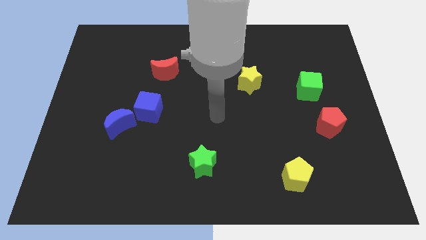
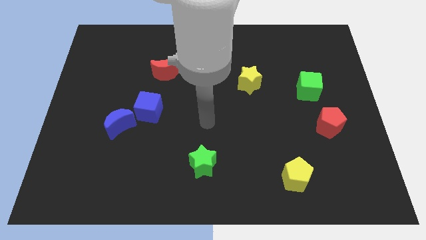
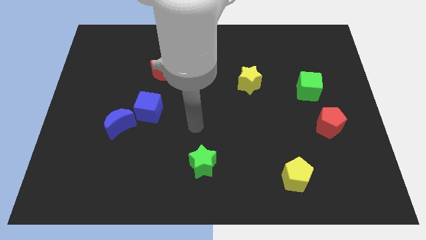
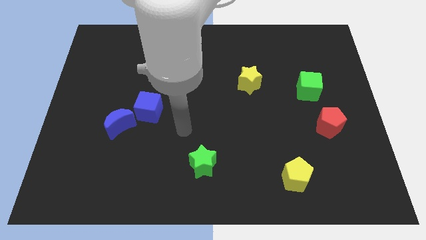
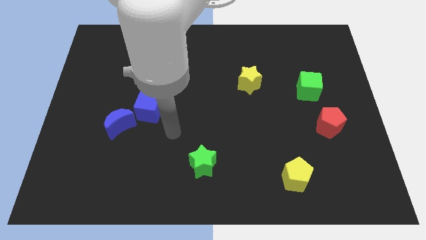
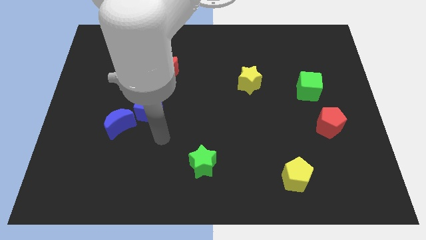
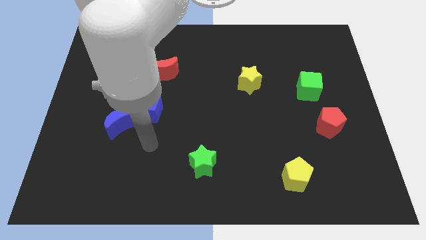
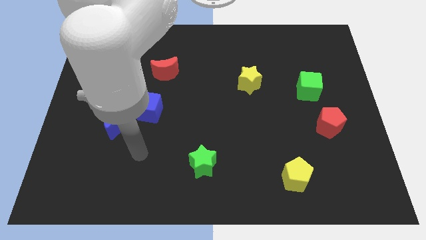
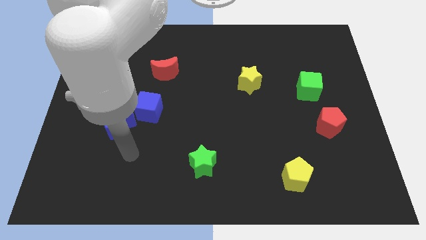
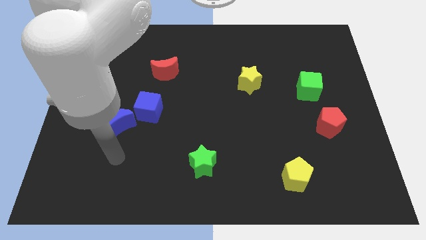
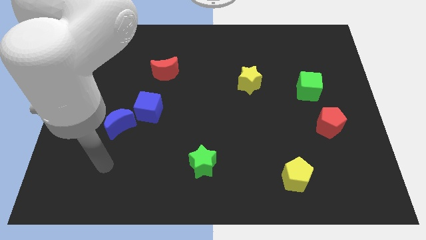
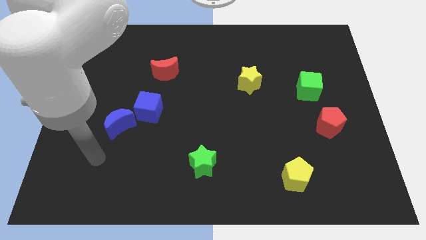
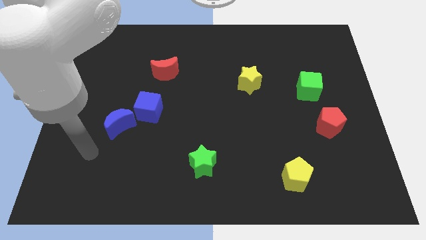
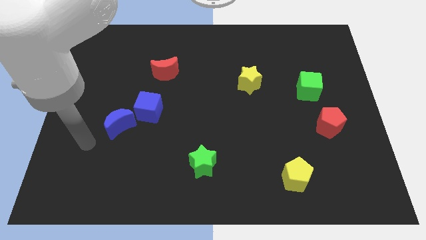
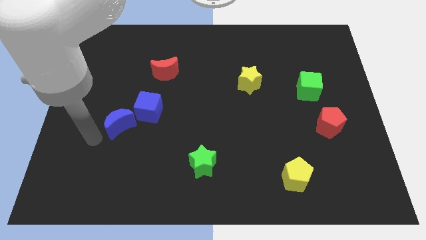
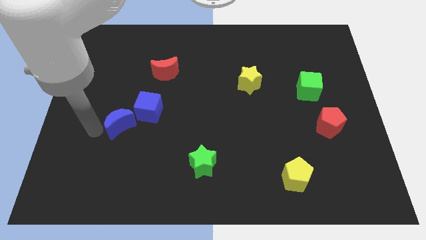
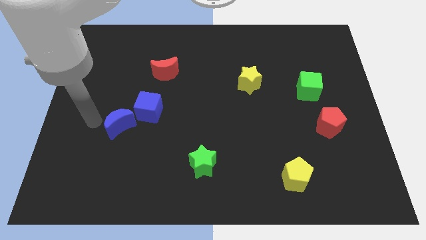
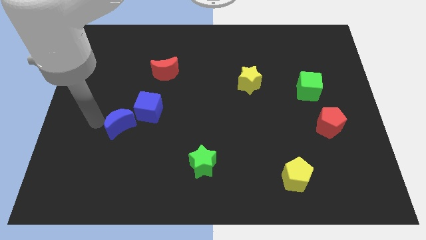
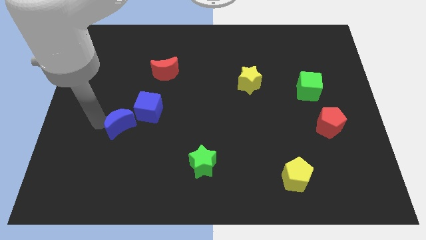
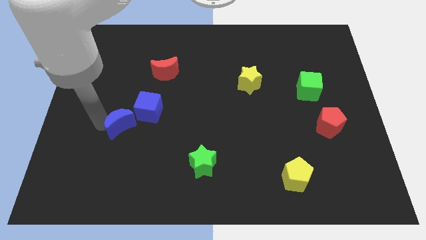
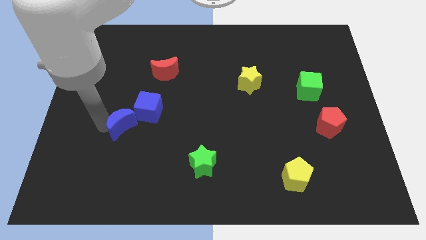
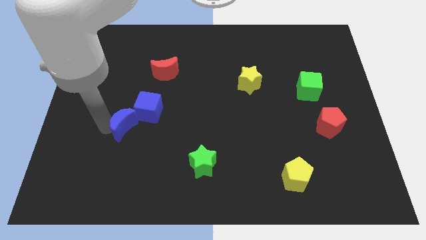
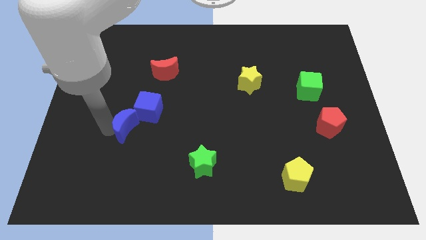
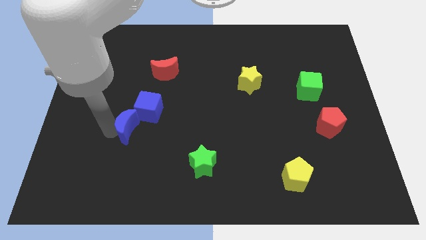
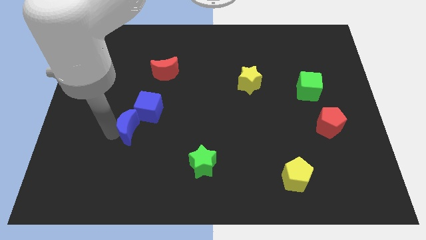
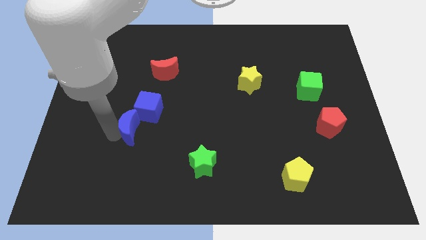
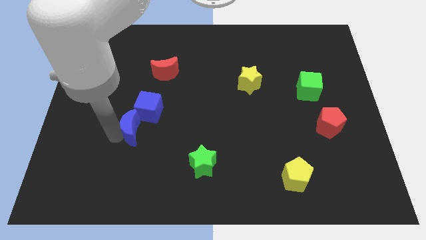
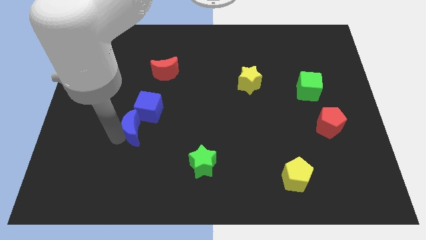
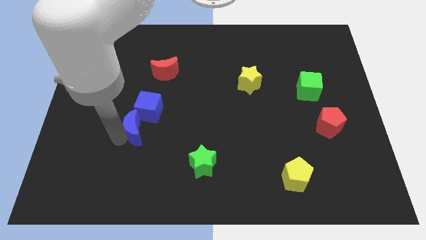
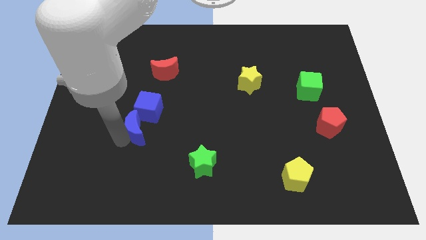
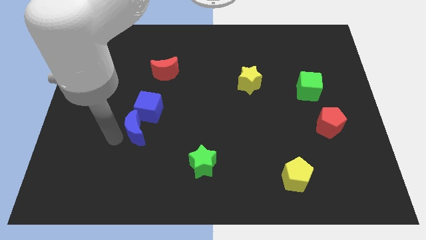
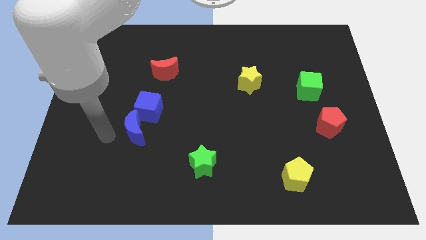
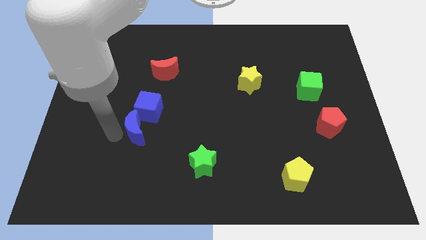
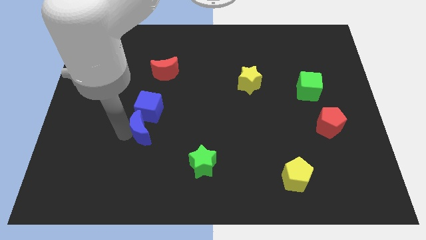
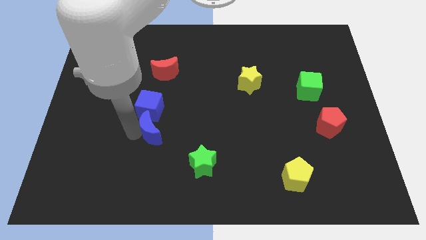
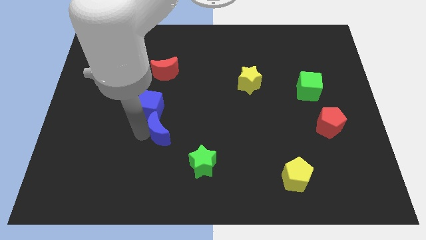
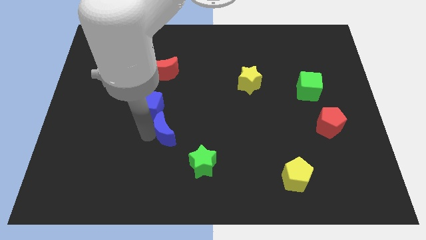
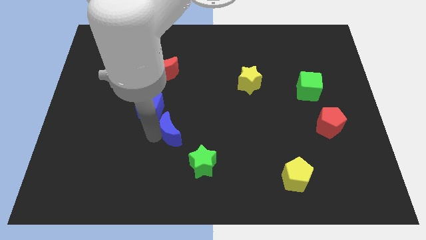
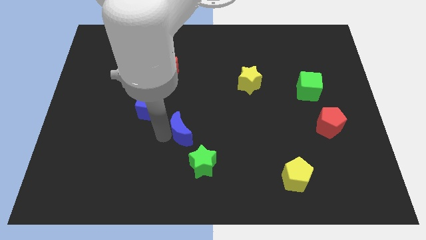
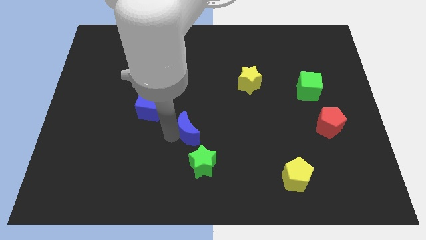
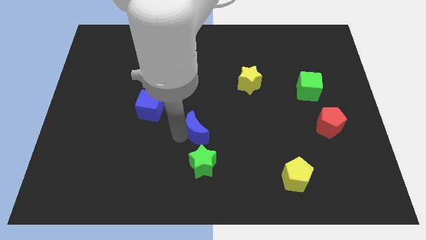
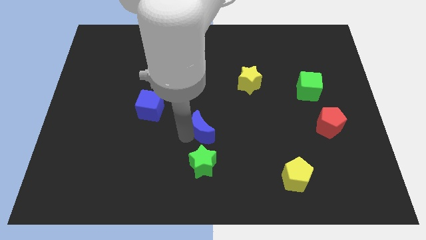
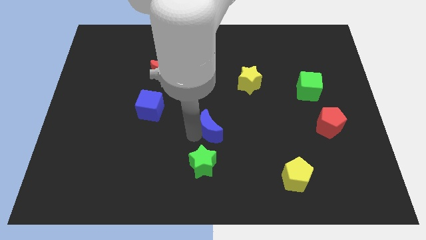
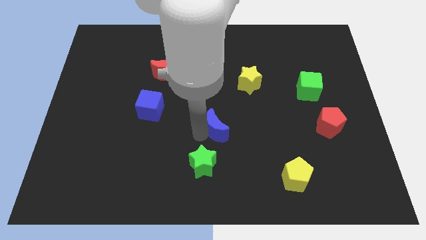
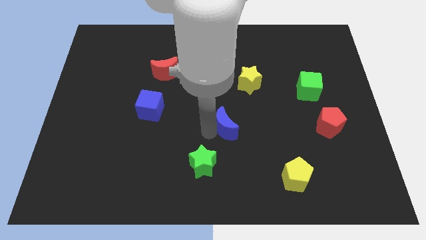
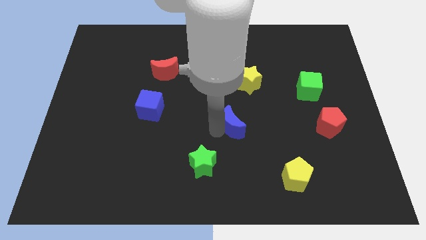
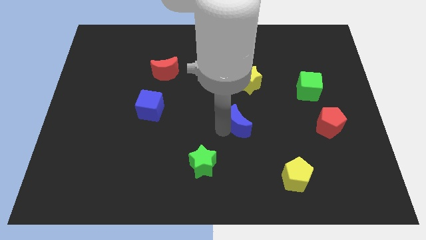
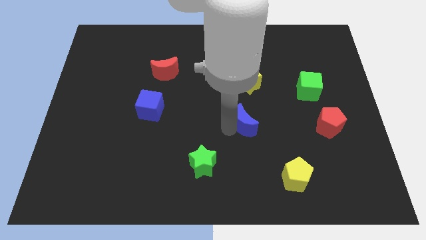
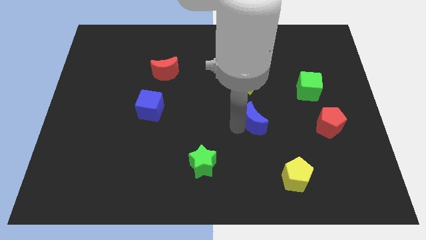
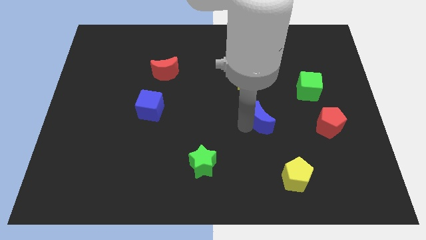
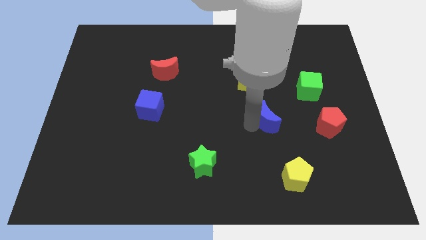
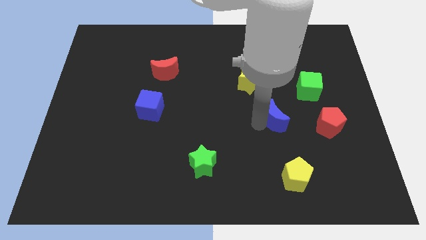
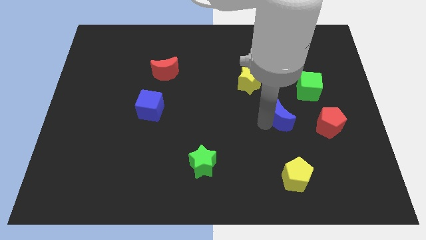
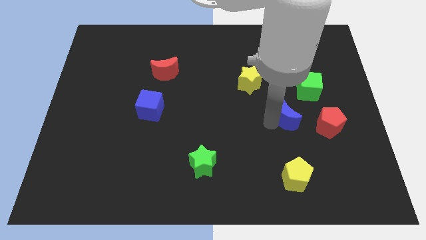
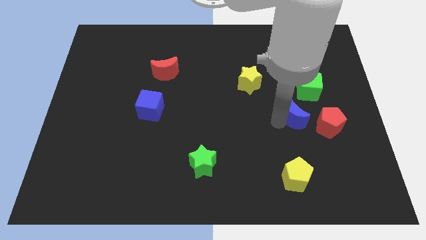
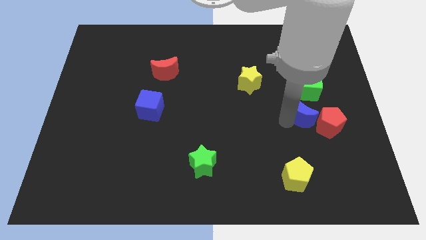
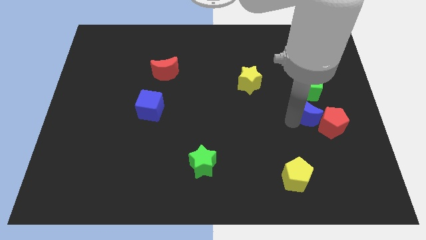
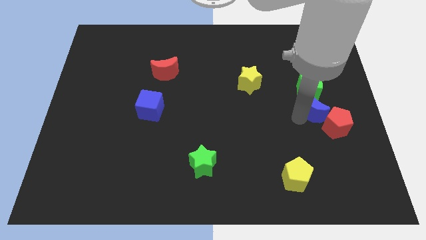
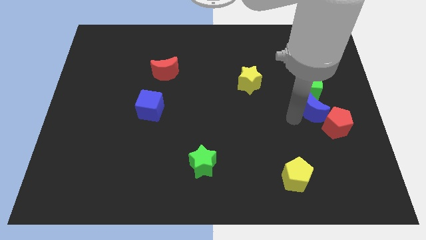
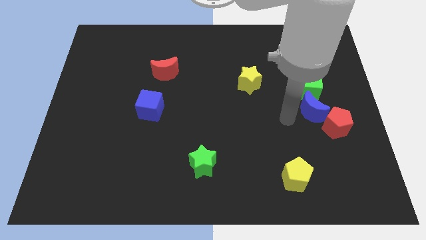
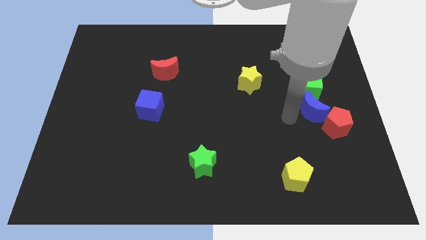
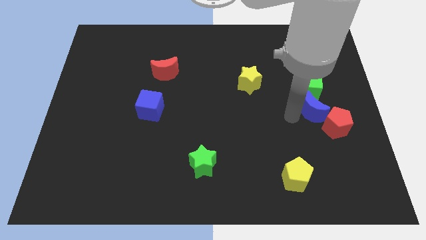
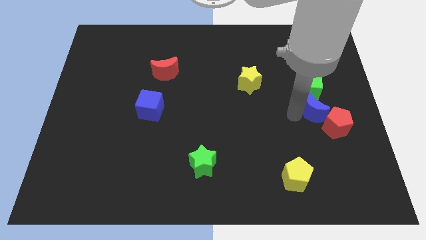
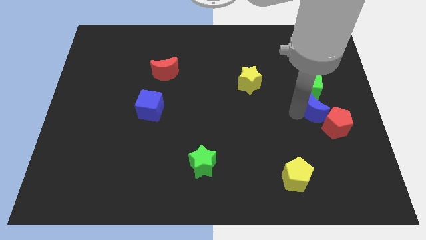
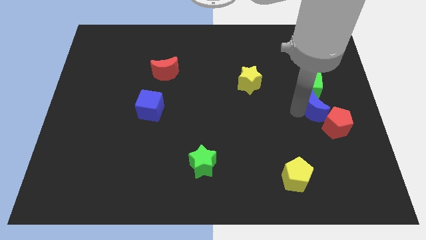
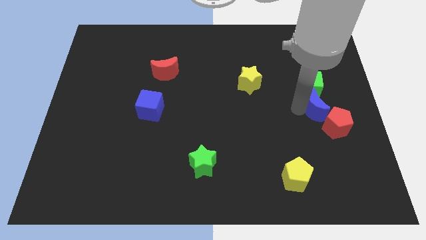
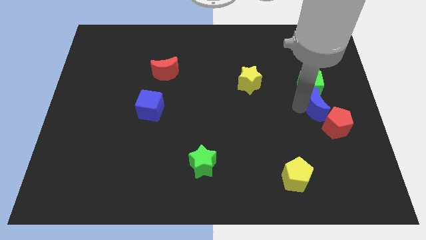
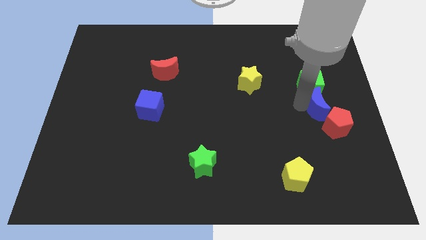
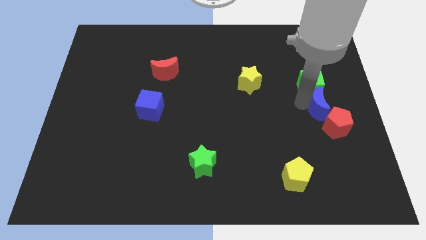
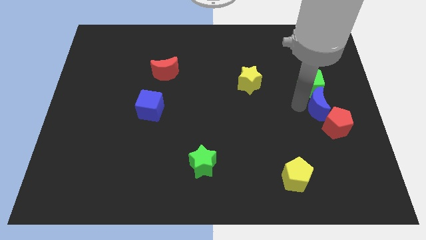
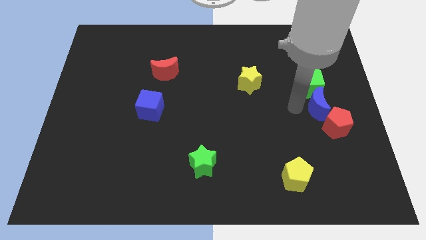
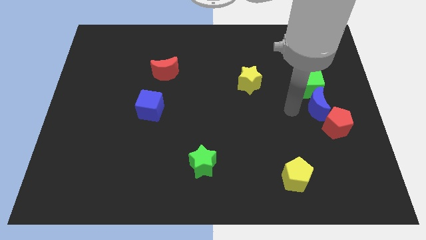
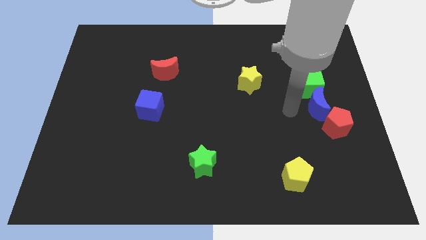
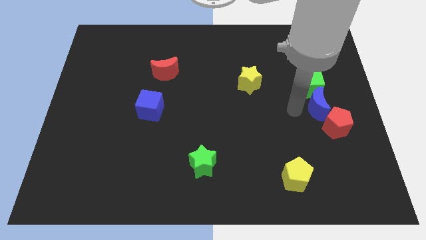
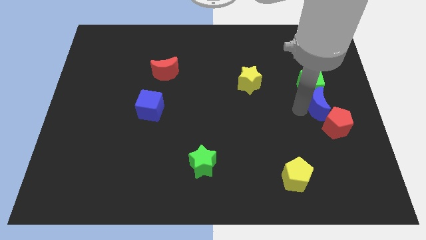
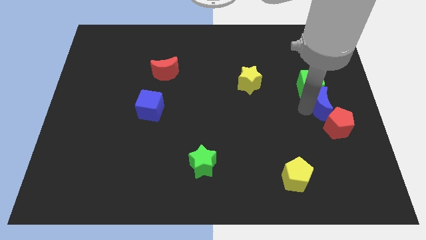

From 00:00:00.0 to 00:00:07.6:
slide the blue moon to the right side
